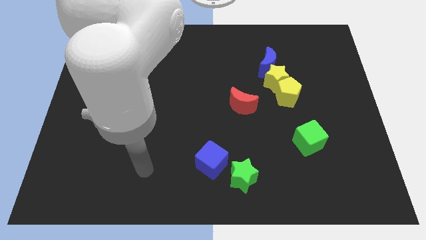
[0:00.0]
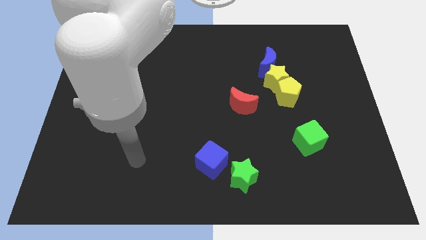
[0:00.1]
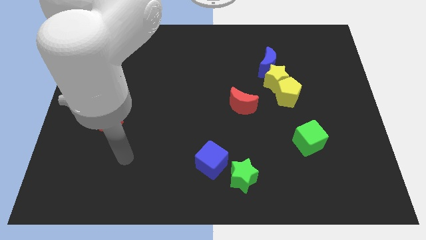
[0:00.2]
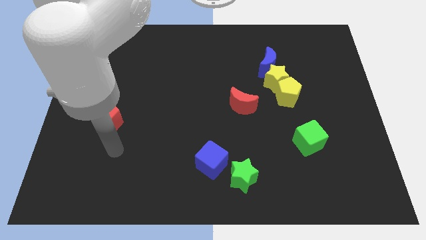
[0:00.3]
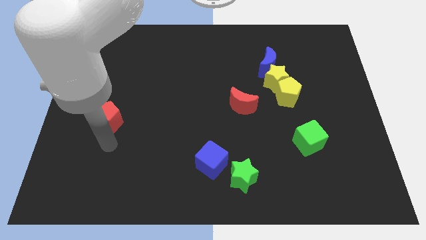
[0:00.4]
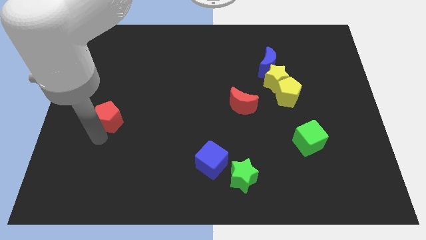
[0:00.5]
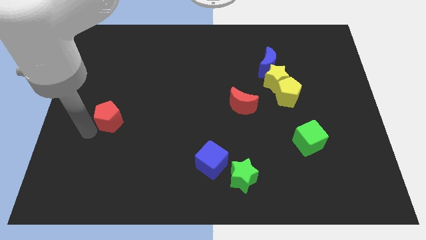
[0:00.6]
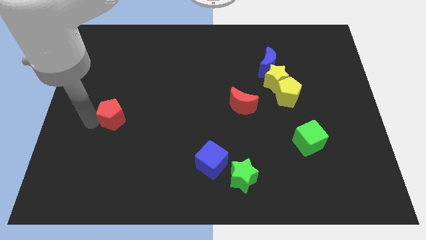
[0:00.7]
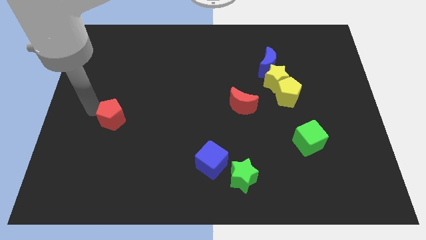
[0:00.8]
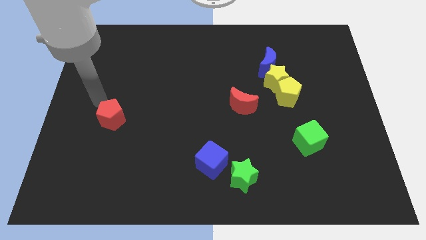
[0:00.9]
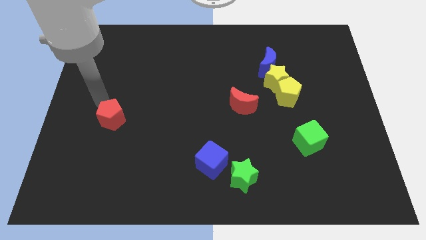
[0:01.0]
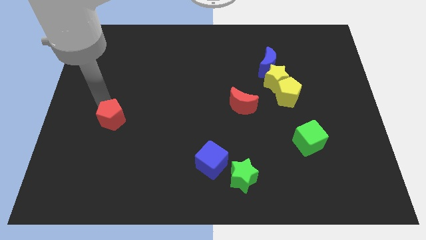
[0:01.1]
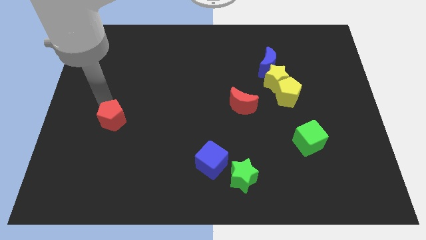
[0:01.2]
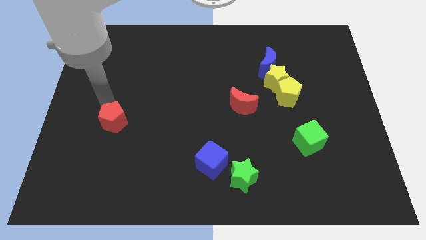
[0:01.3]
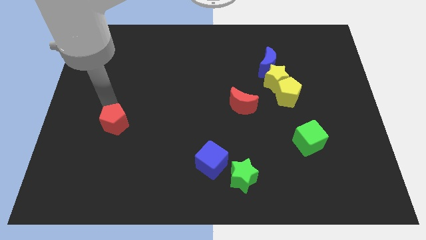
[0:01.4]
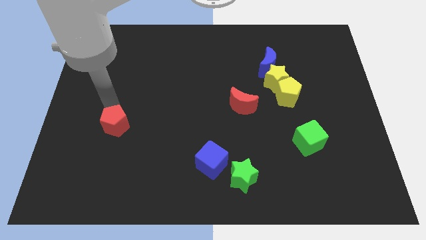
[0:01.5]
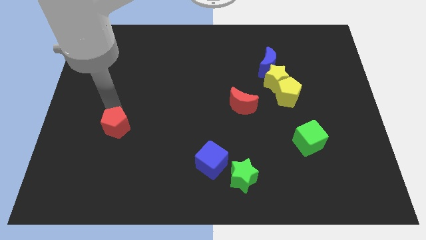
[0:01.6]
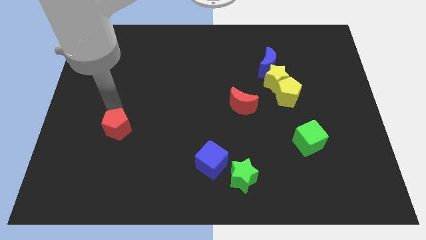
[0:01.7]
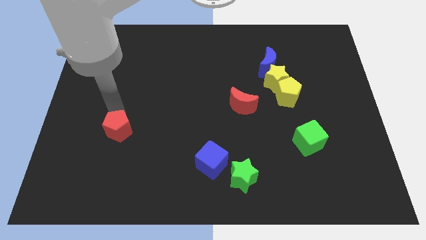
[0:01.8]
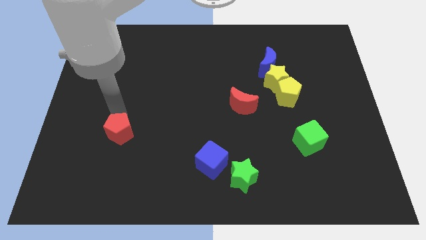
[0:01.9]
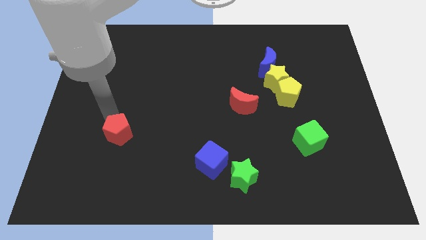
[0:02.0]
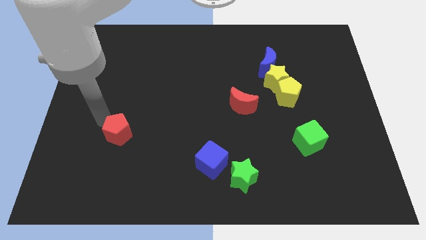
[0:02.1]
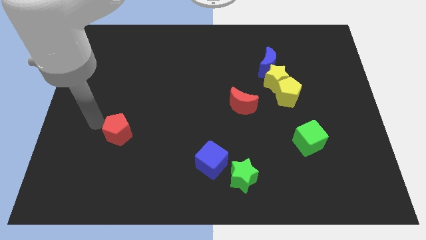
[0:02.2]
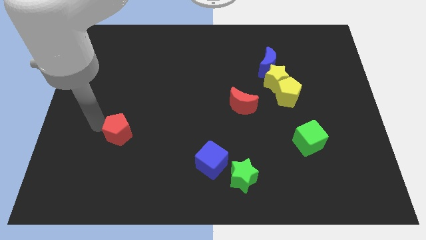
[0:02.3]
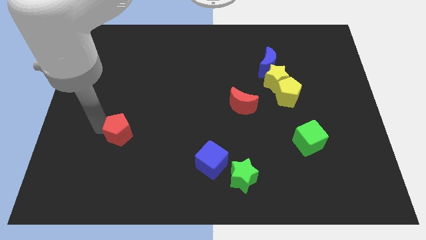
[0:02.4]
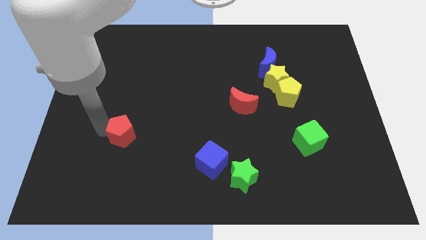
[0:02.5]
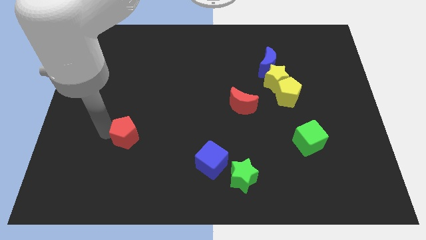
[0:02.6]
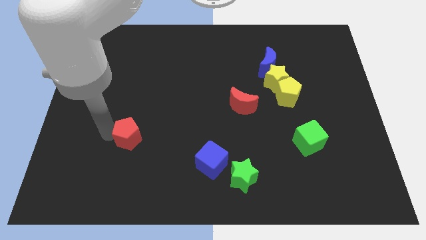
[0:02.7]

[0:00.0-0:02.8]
slightly push the red pentagon down and to the right diagonally

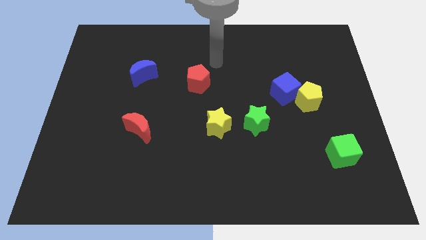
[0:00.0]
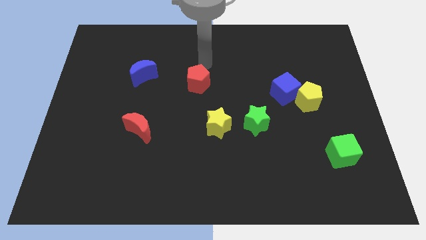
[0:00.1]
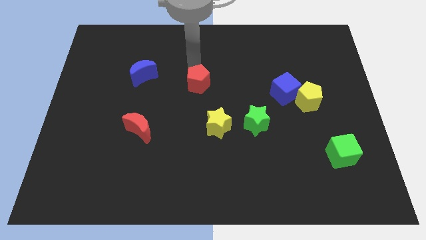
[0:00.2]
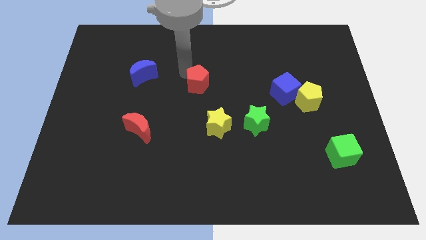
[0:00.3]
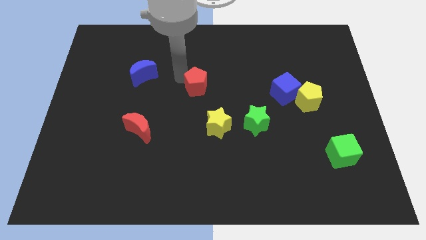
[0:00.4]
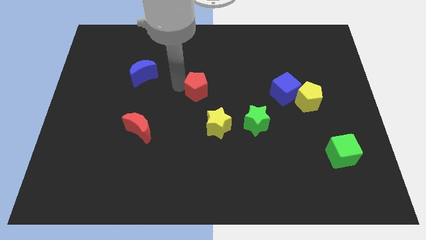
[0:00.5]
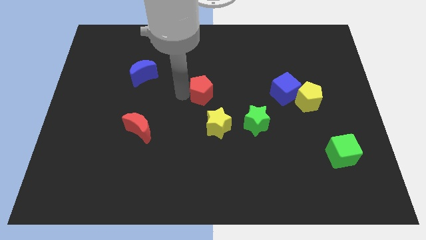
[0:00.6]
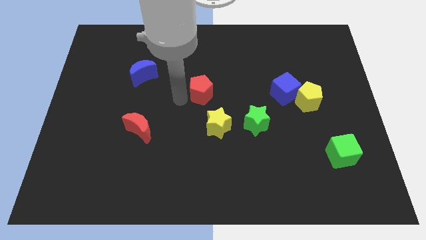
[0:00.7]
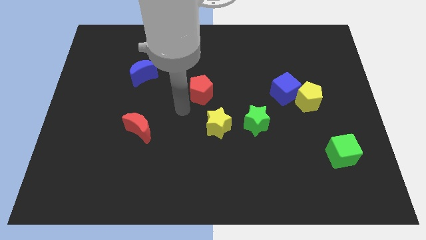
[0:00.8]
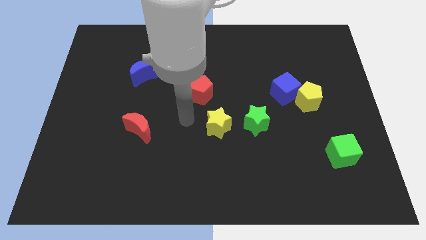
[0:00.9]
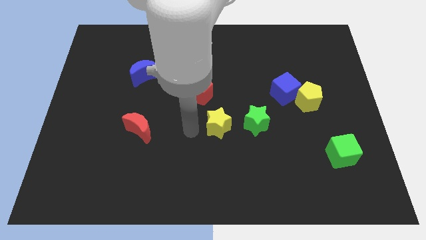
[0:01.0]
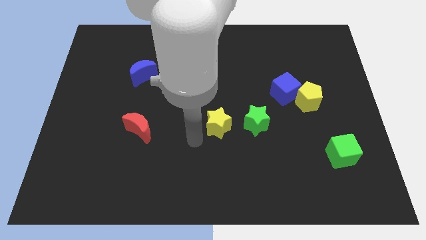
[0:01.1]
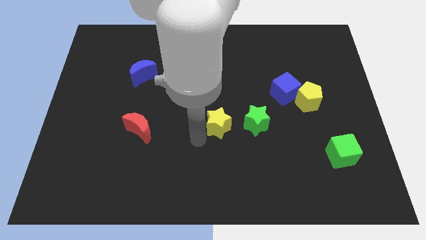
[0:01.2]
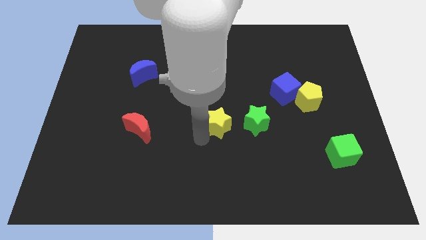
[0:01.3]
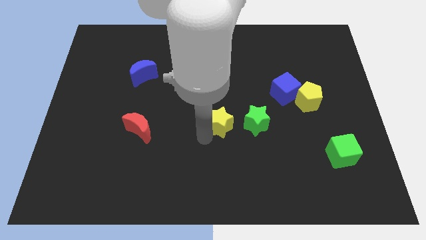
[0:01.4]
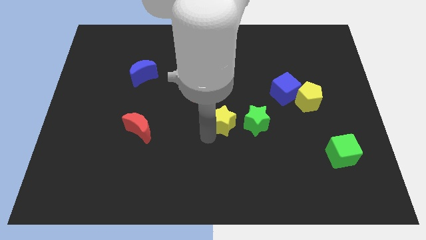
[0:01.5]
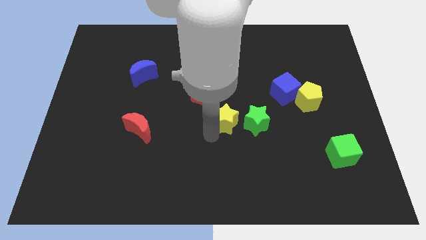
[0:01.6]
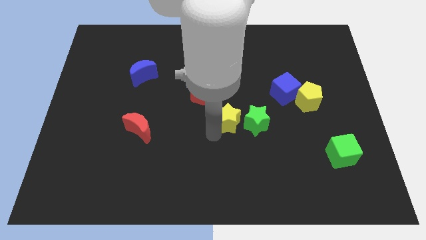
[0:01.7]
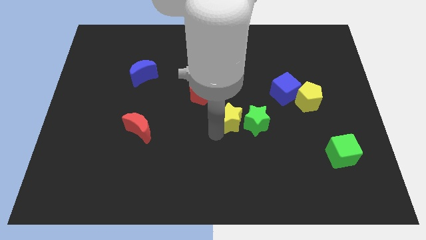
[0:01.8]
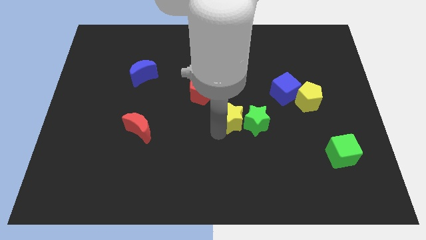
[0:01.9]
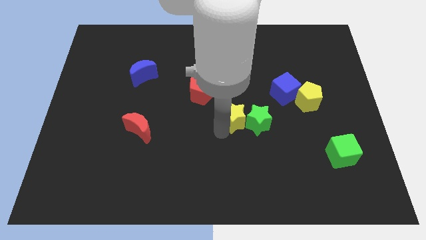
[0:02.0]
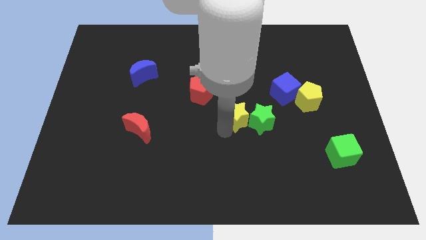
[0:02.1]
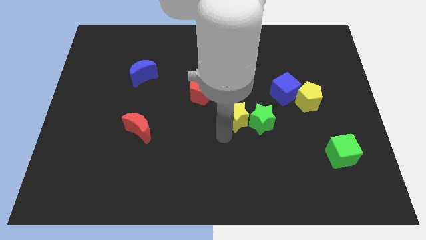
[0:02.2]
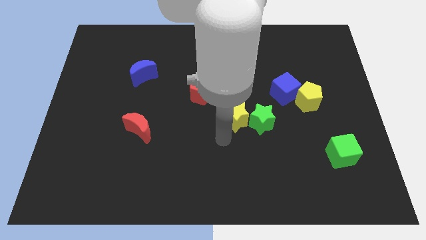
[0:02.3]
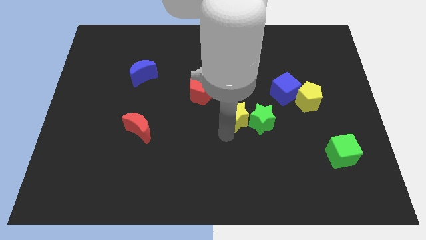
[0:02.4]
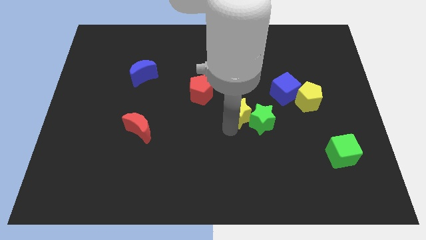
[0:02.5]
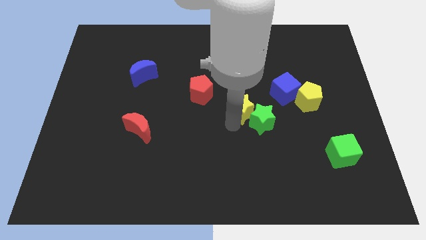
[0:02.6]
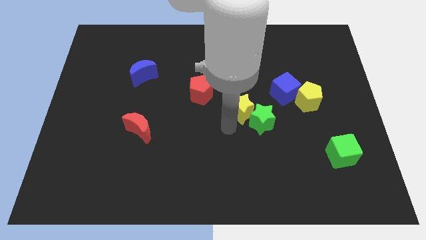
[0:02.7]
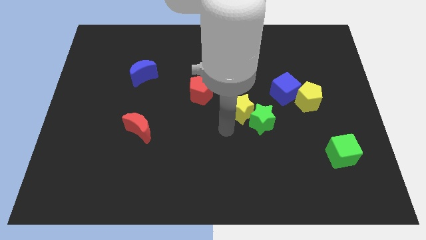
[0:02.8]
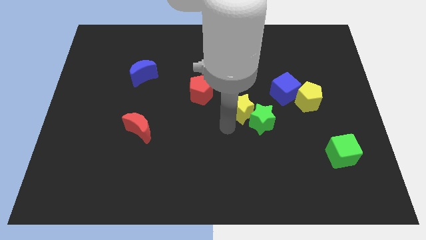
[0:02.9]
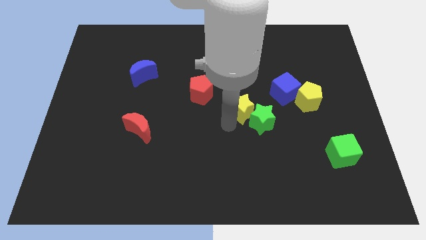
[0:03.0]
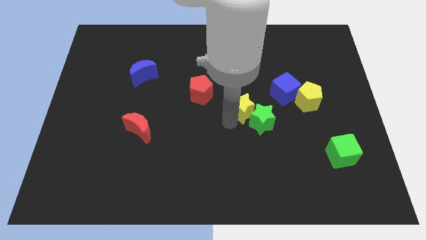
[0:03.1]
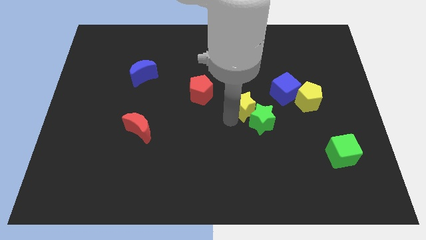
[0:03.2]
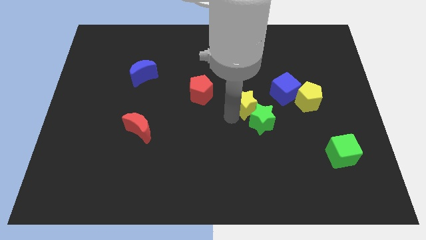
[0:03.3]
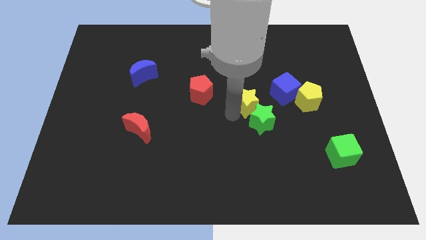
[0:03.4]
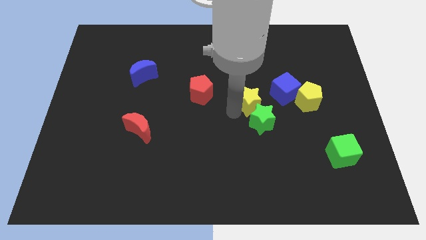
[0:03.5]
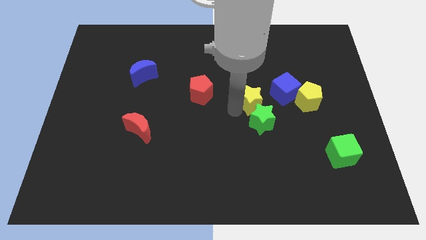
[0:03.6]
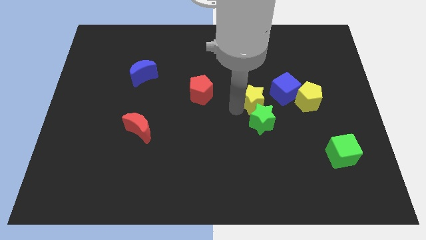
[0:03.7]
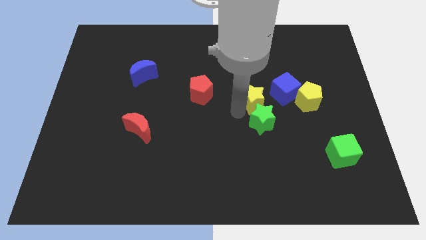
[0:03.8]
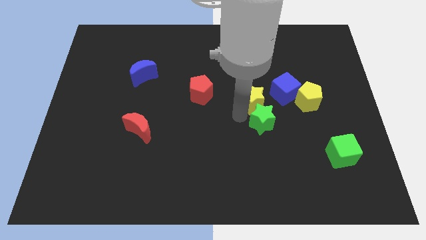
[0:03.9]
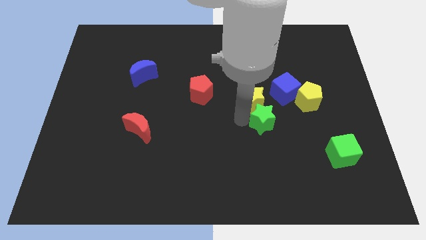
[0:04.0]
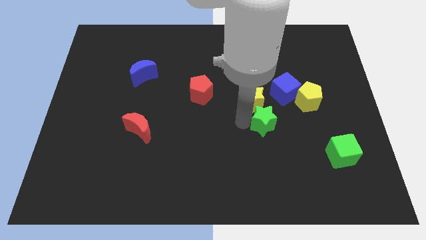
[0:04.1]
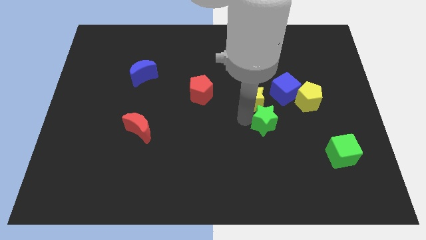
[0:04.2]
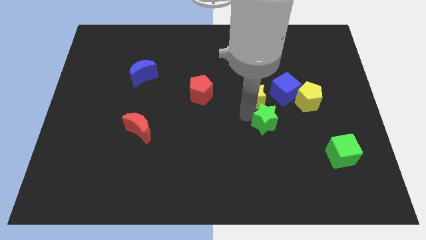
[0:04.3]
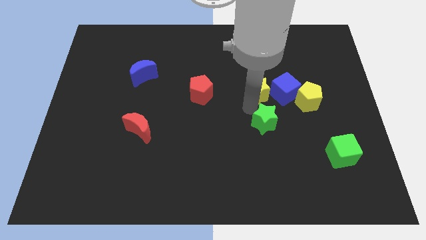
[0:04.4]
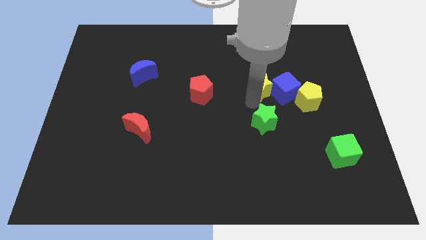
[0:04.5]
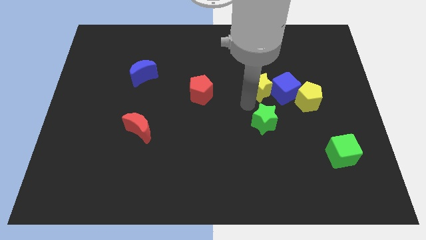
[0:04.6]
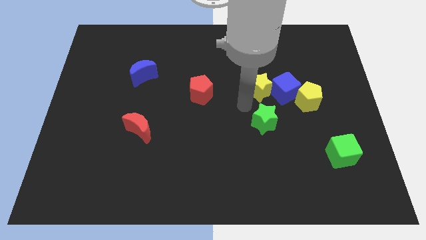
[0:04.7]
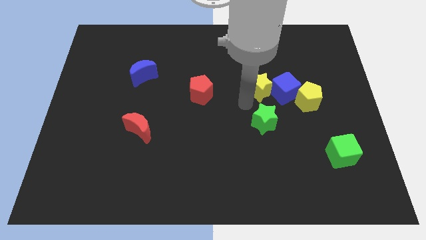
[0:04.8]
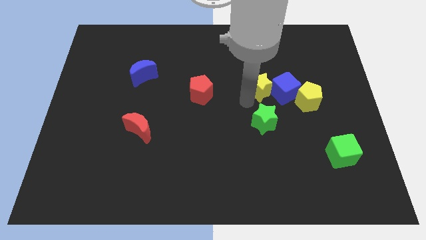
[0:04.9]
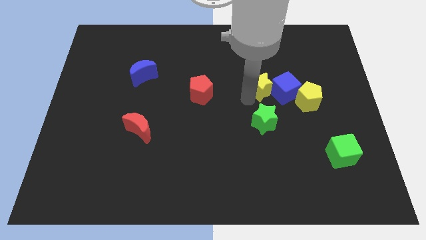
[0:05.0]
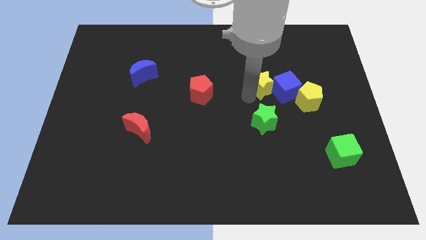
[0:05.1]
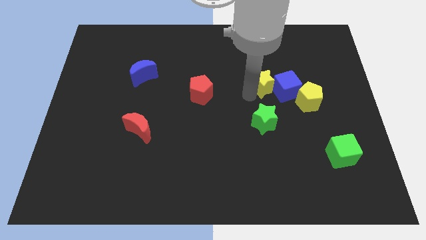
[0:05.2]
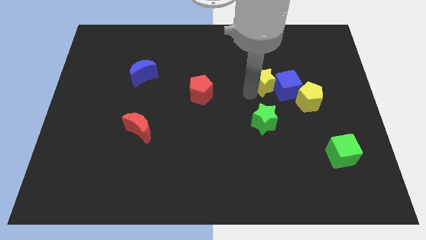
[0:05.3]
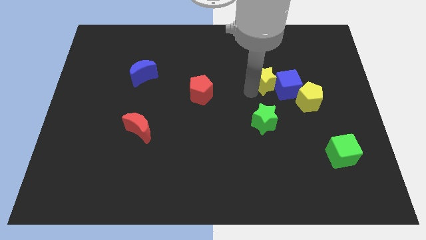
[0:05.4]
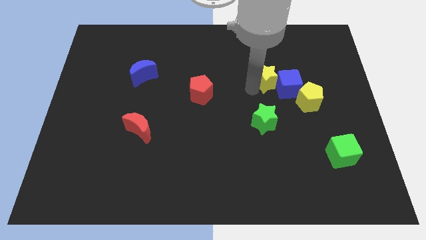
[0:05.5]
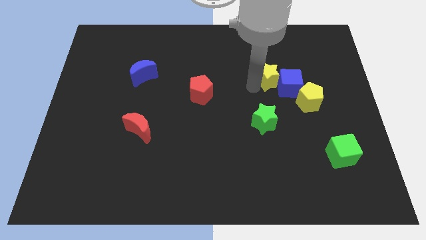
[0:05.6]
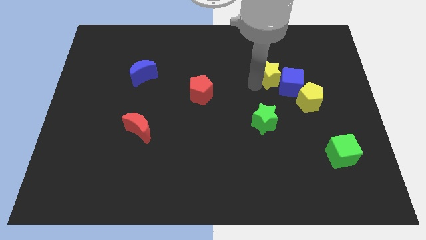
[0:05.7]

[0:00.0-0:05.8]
slide the yellow star up and right diagonally
